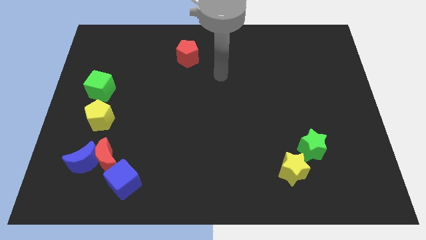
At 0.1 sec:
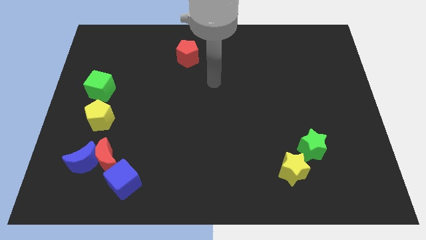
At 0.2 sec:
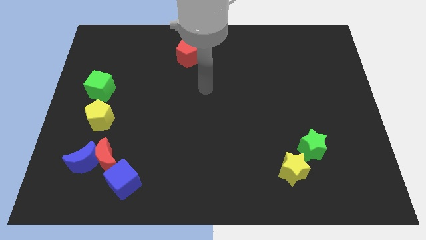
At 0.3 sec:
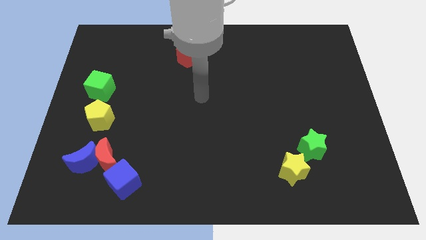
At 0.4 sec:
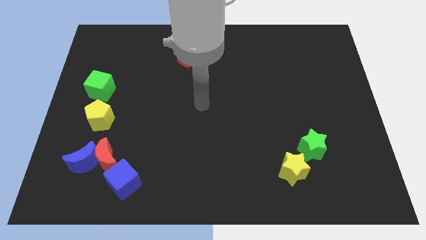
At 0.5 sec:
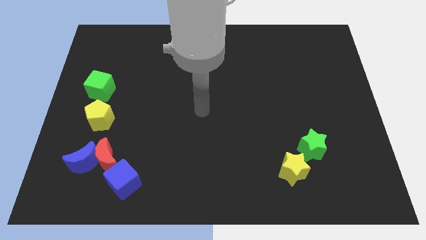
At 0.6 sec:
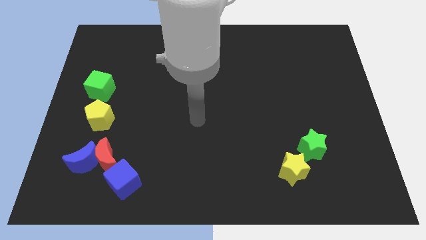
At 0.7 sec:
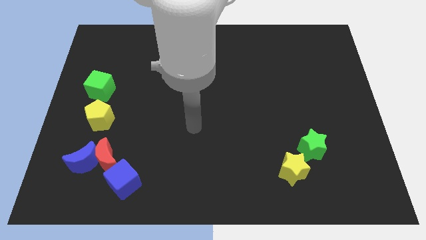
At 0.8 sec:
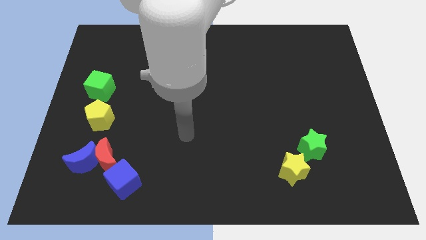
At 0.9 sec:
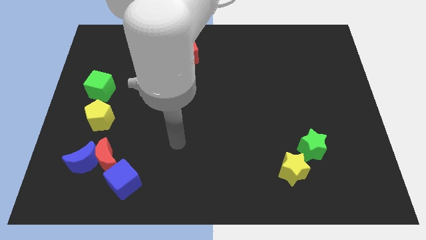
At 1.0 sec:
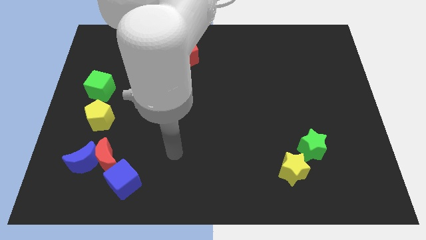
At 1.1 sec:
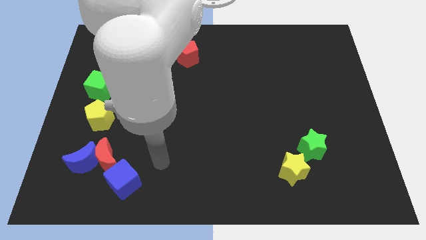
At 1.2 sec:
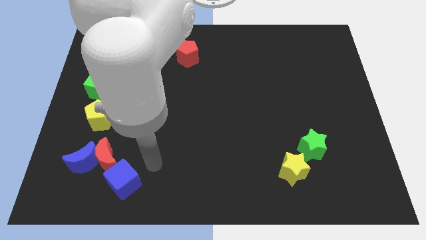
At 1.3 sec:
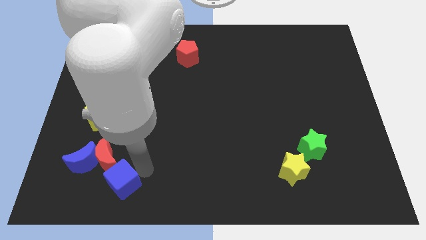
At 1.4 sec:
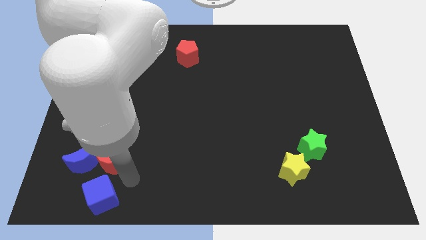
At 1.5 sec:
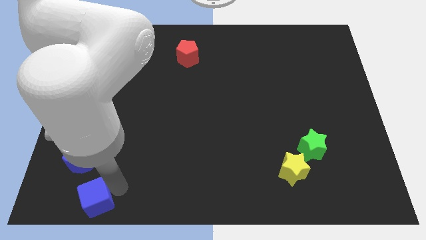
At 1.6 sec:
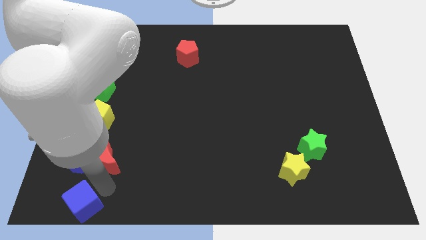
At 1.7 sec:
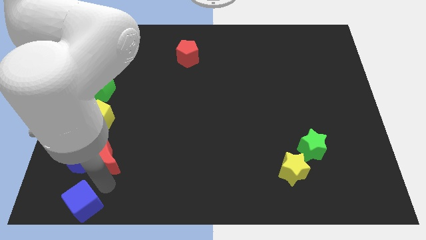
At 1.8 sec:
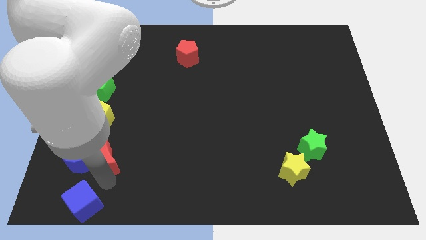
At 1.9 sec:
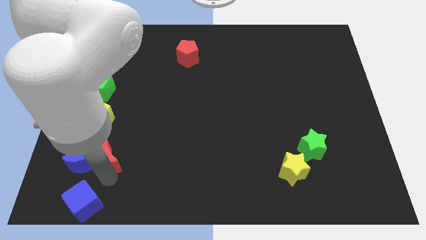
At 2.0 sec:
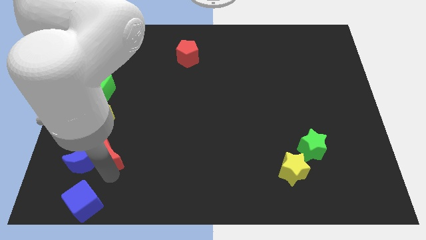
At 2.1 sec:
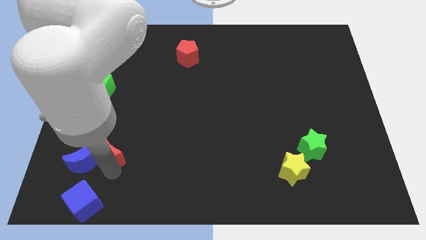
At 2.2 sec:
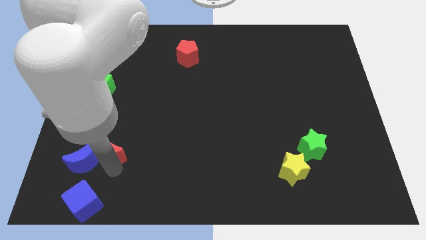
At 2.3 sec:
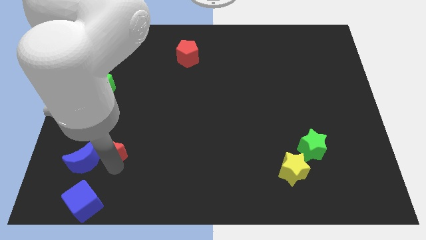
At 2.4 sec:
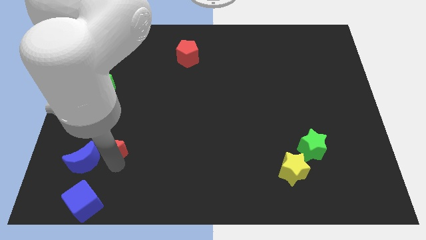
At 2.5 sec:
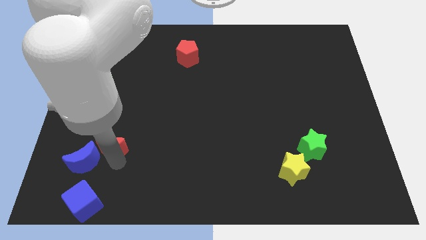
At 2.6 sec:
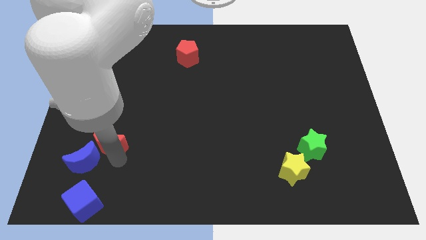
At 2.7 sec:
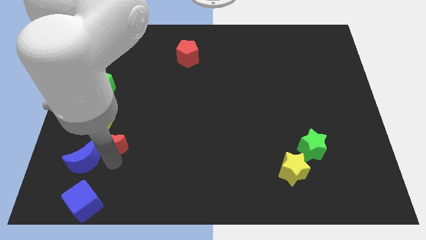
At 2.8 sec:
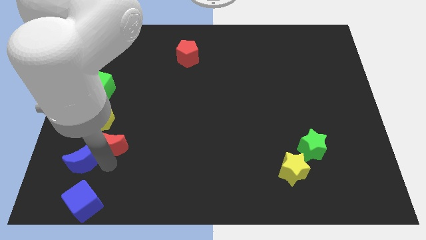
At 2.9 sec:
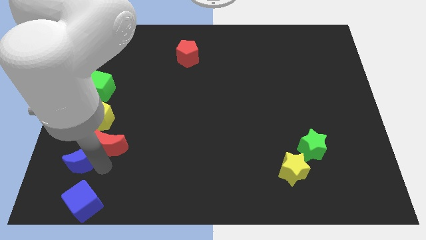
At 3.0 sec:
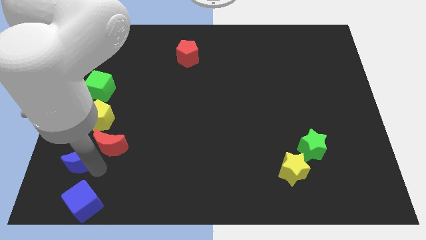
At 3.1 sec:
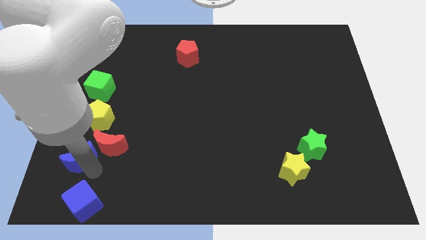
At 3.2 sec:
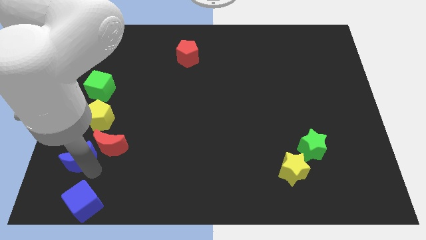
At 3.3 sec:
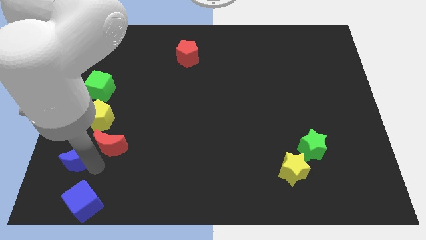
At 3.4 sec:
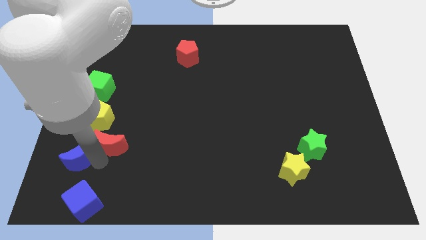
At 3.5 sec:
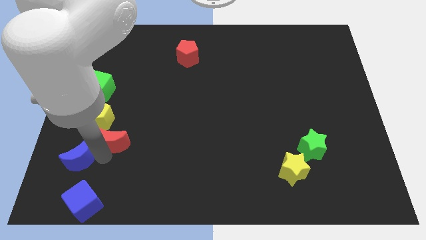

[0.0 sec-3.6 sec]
move the red moon away from the blue moon and blue cube

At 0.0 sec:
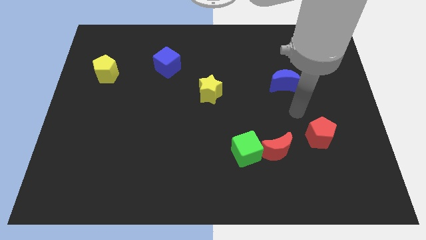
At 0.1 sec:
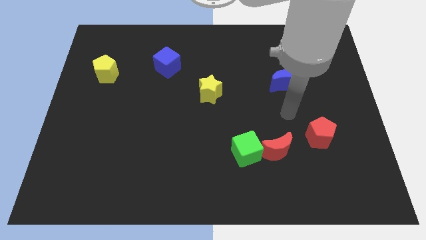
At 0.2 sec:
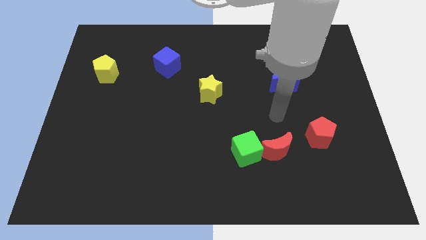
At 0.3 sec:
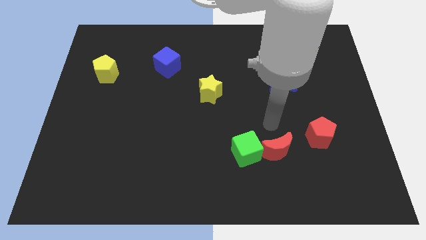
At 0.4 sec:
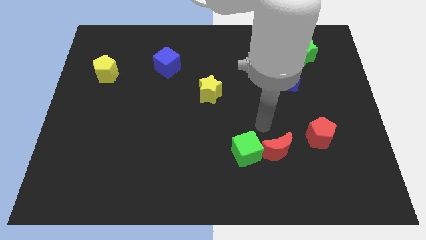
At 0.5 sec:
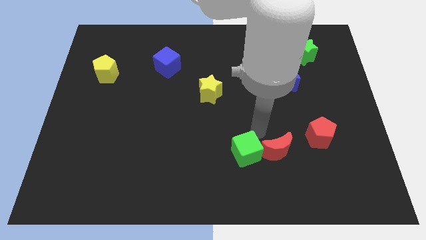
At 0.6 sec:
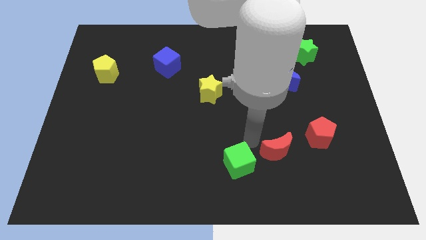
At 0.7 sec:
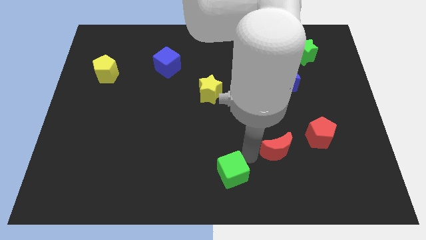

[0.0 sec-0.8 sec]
separate the red moon from the green cube

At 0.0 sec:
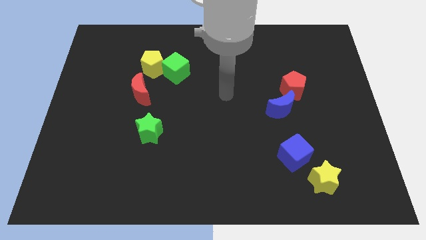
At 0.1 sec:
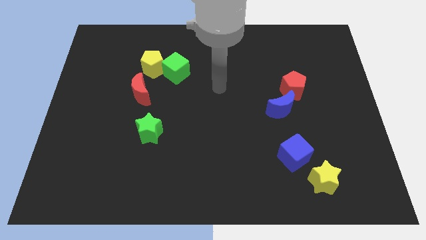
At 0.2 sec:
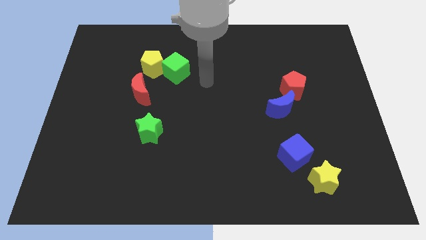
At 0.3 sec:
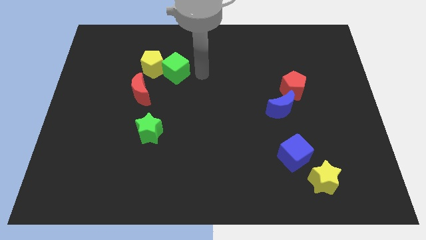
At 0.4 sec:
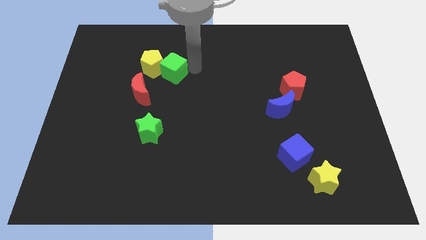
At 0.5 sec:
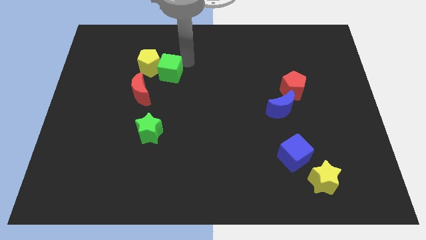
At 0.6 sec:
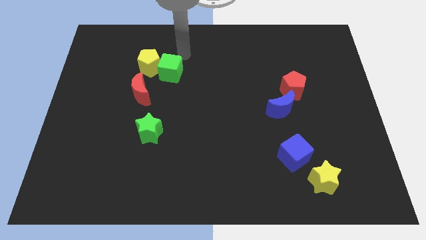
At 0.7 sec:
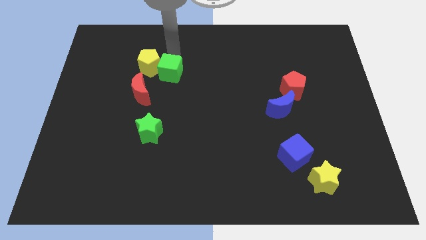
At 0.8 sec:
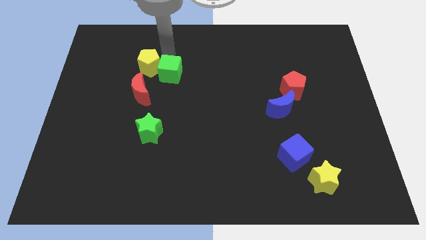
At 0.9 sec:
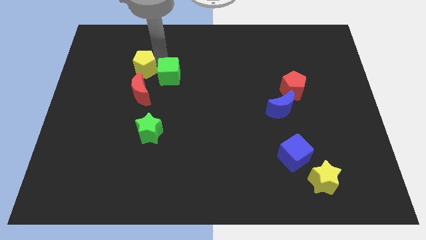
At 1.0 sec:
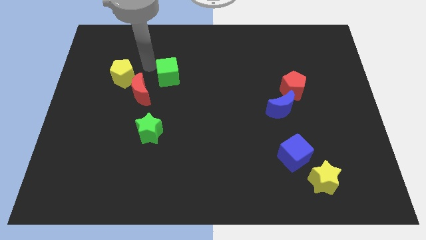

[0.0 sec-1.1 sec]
separate the green cube from the yellow pentagon

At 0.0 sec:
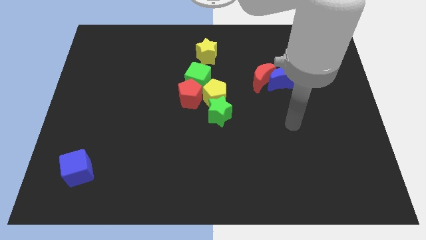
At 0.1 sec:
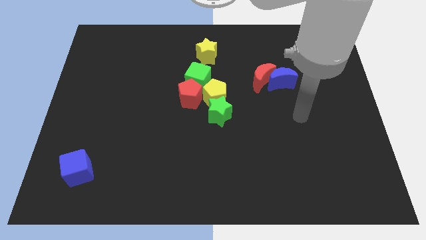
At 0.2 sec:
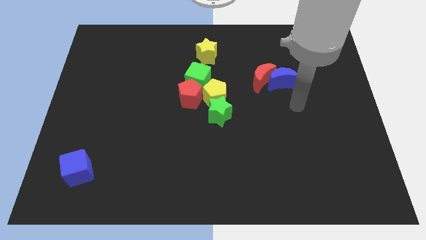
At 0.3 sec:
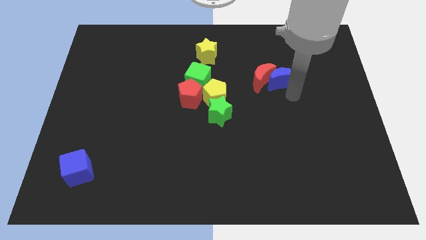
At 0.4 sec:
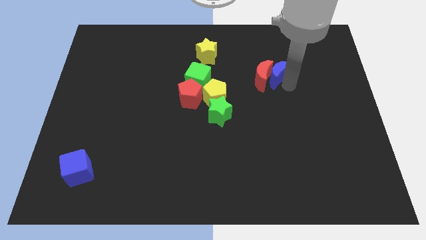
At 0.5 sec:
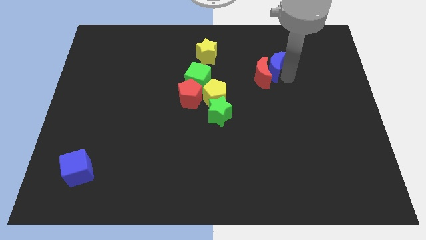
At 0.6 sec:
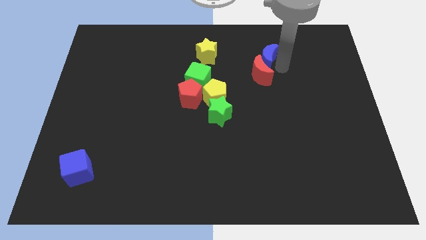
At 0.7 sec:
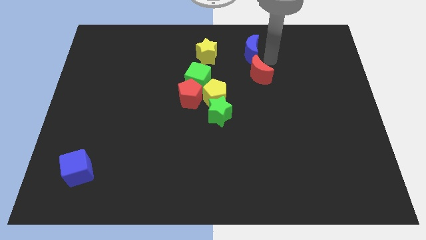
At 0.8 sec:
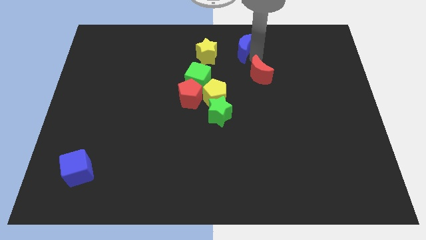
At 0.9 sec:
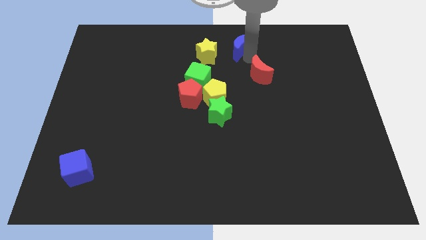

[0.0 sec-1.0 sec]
separate the red moon from the blue moon

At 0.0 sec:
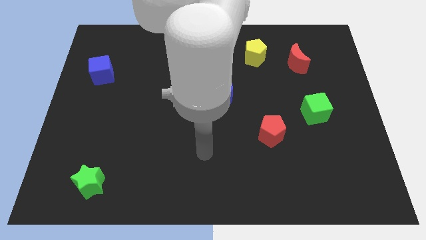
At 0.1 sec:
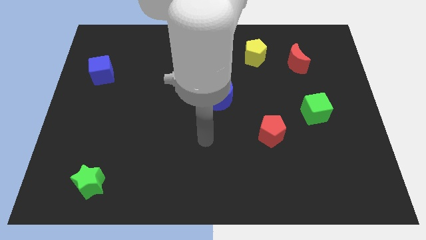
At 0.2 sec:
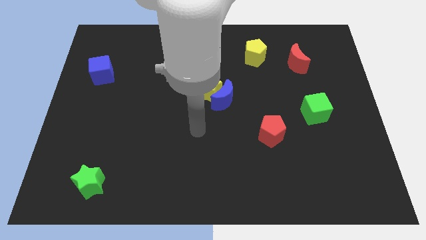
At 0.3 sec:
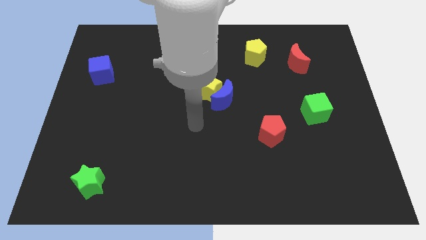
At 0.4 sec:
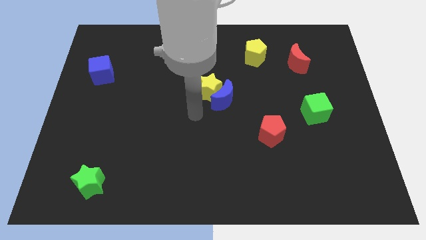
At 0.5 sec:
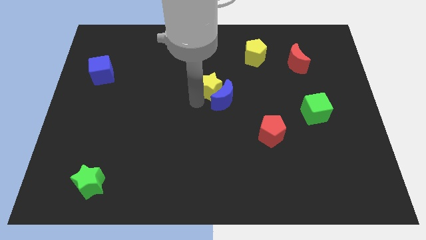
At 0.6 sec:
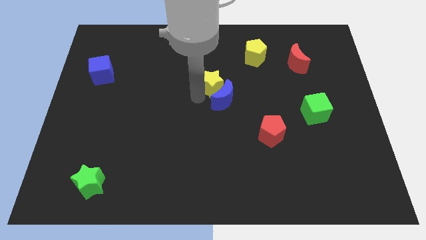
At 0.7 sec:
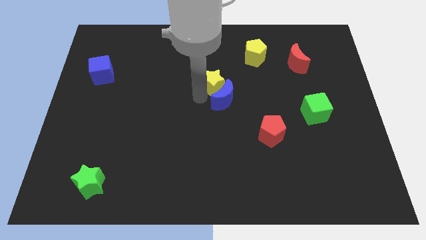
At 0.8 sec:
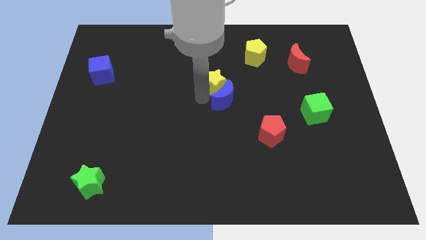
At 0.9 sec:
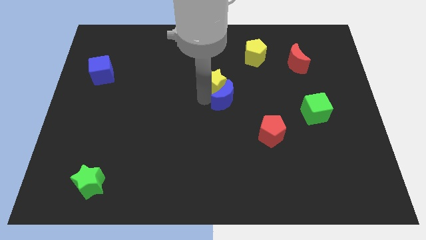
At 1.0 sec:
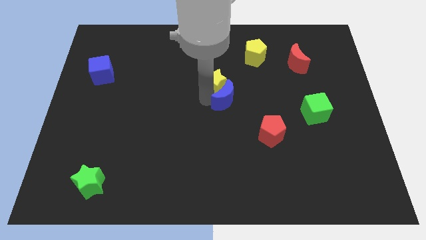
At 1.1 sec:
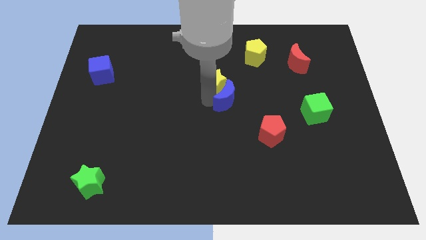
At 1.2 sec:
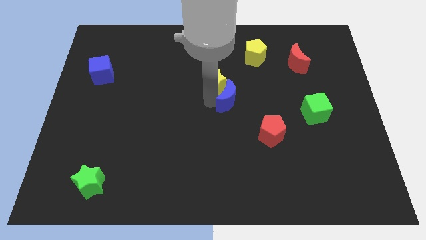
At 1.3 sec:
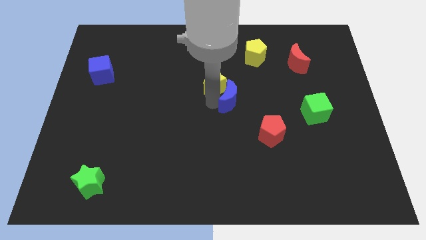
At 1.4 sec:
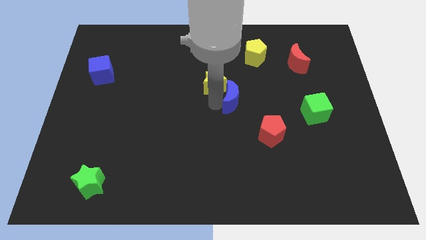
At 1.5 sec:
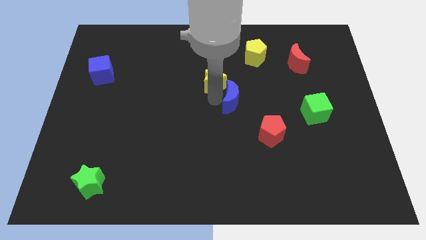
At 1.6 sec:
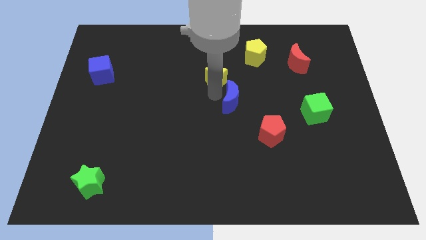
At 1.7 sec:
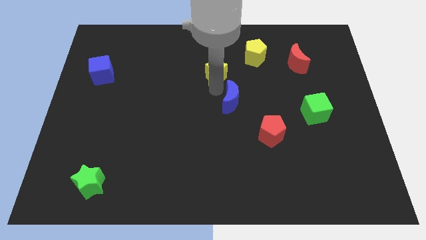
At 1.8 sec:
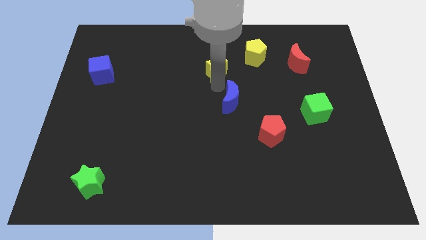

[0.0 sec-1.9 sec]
separate the blue moon from the yellow star

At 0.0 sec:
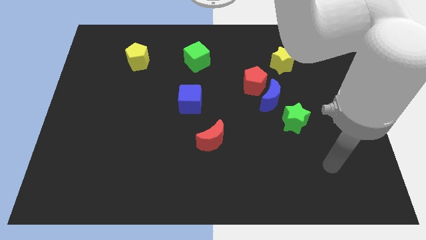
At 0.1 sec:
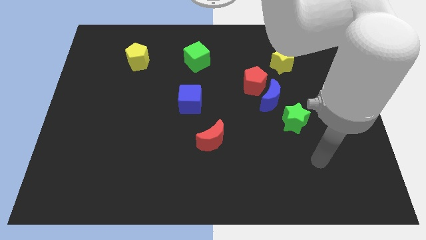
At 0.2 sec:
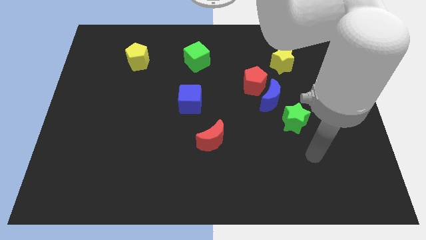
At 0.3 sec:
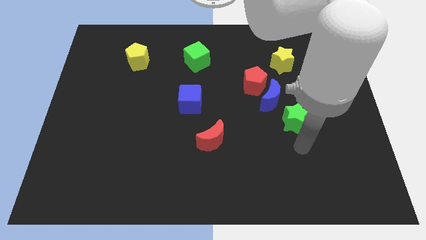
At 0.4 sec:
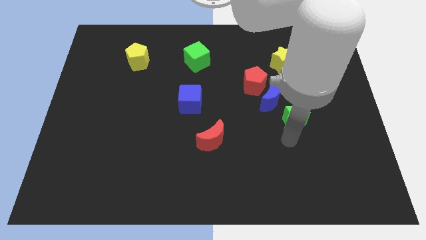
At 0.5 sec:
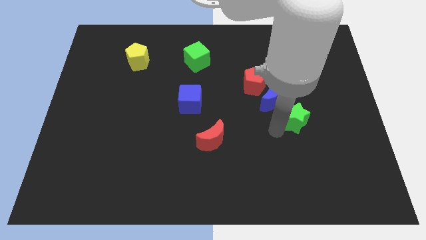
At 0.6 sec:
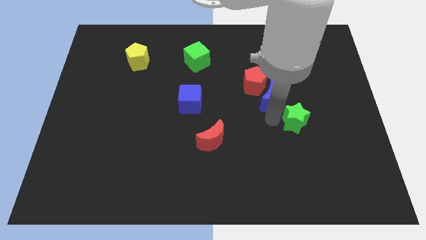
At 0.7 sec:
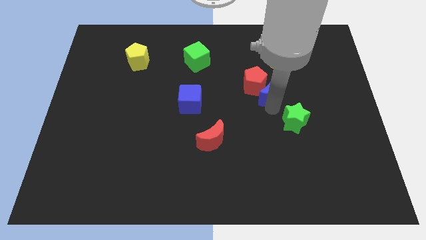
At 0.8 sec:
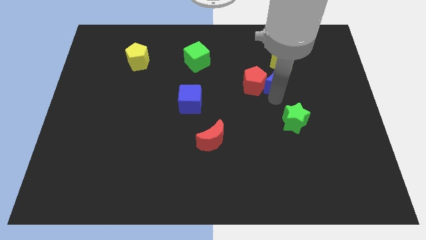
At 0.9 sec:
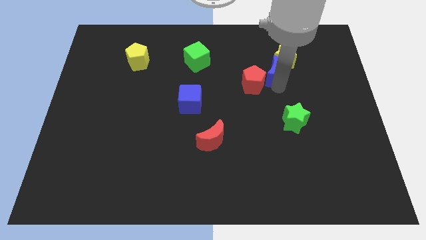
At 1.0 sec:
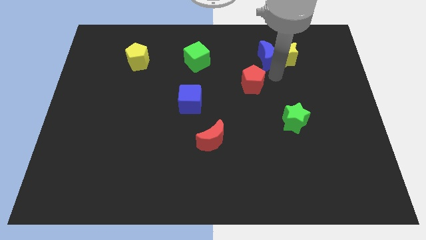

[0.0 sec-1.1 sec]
move the red pentagon away from the blue moon
